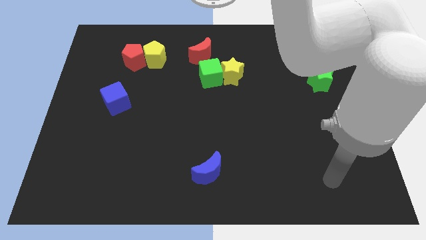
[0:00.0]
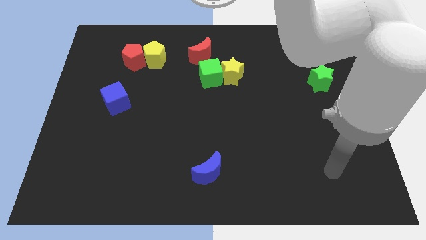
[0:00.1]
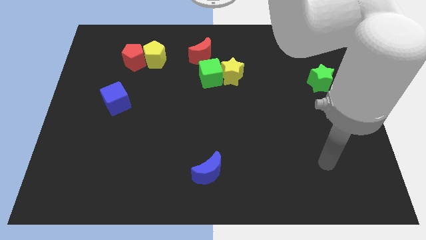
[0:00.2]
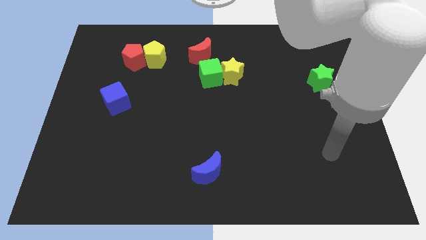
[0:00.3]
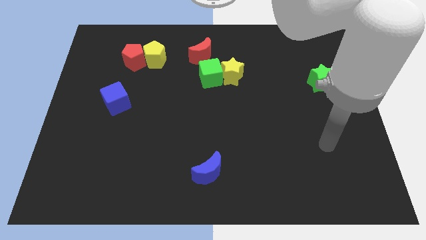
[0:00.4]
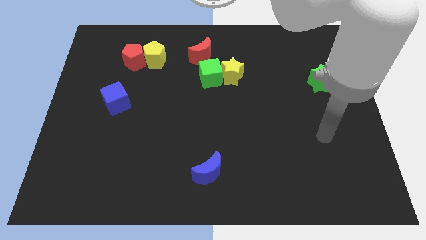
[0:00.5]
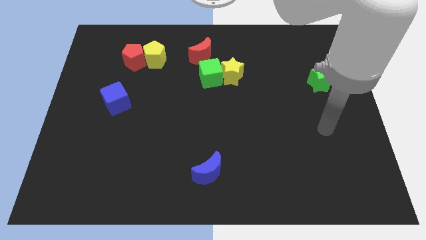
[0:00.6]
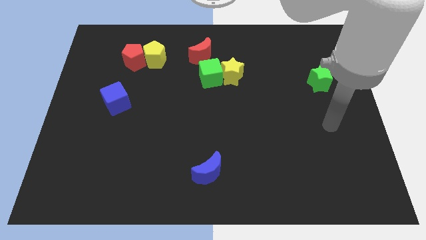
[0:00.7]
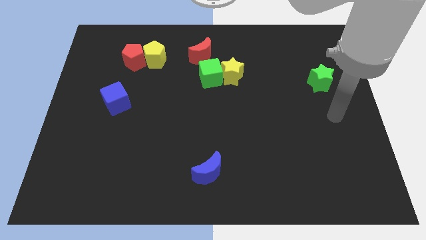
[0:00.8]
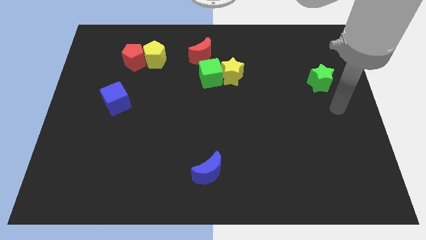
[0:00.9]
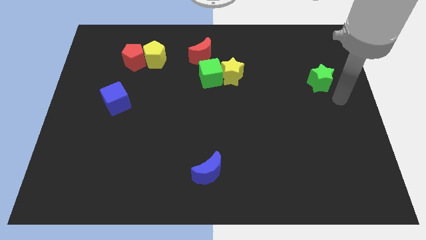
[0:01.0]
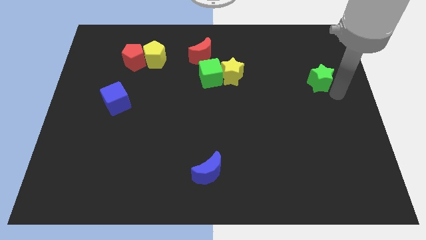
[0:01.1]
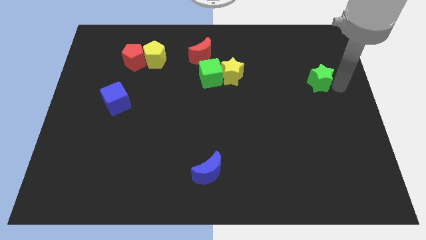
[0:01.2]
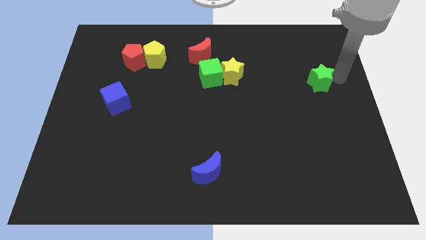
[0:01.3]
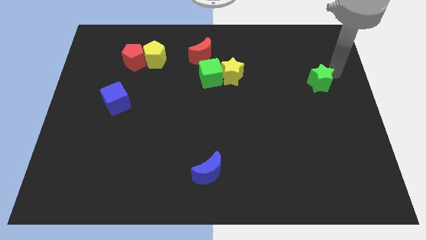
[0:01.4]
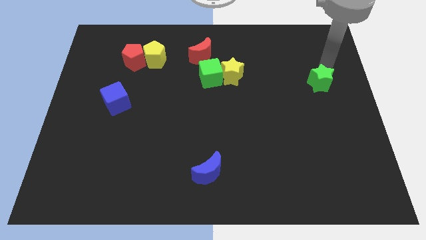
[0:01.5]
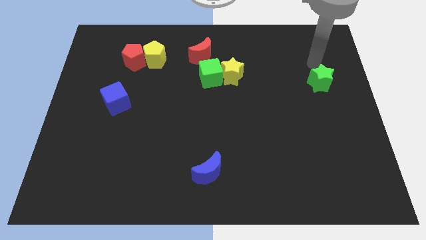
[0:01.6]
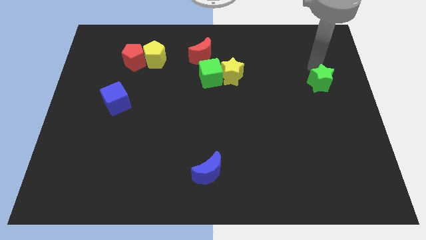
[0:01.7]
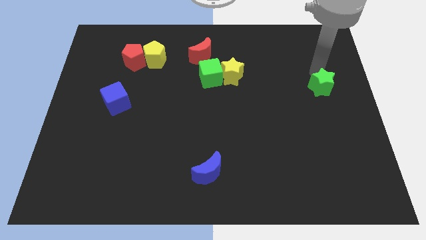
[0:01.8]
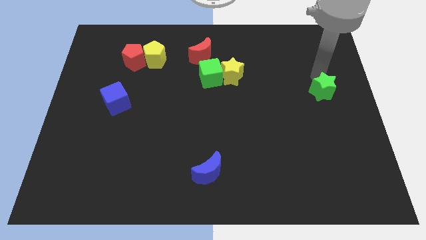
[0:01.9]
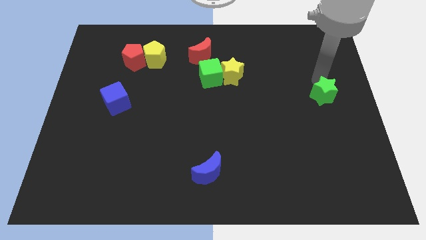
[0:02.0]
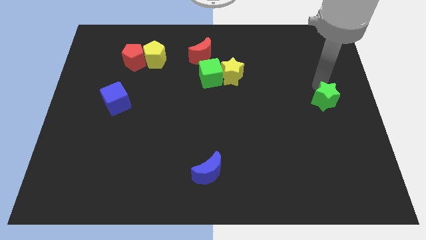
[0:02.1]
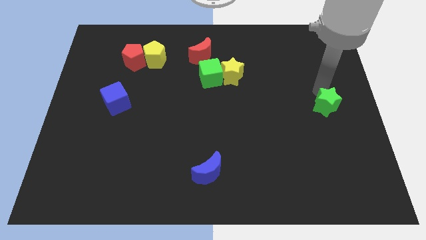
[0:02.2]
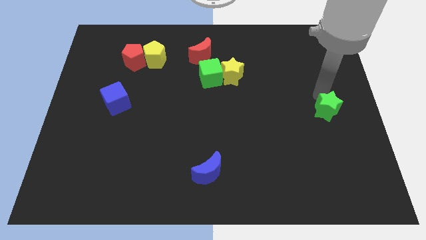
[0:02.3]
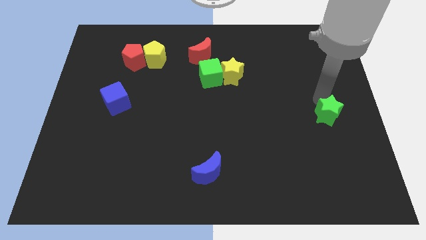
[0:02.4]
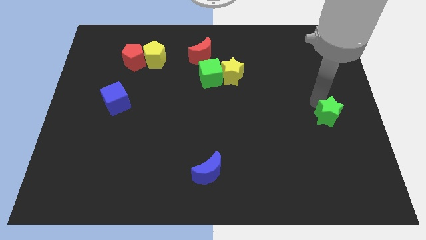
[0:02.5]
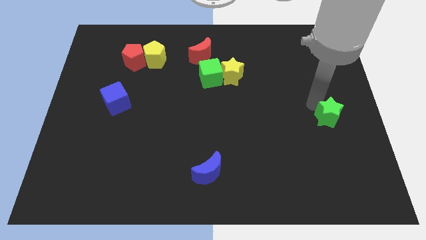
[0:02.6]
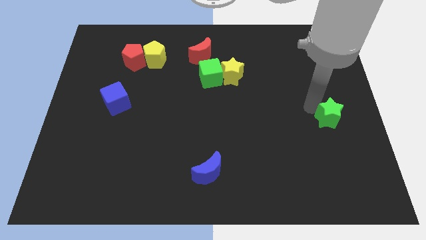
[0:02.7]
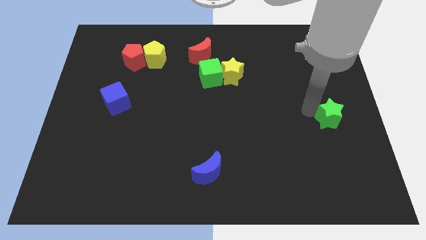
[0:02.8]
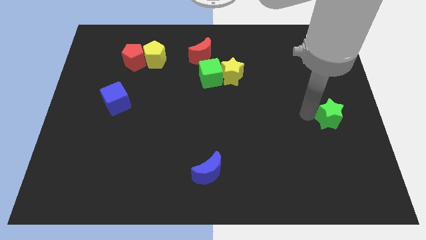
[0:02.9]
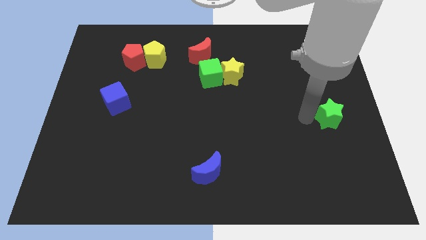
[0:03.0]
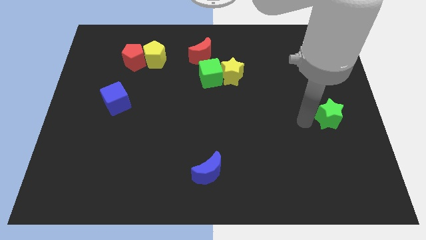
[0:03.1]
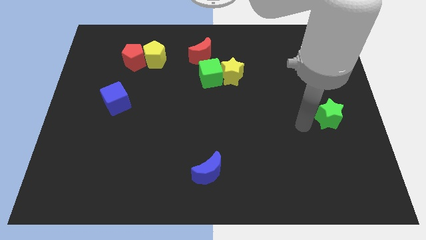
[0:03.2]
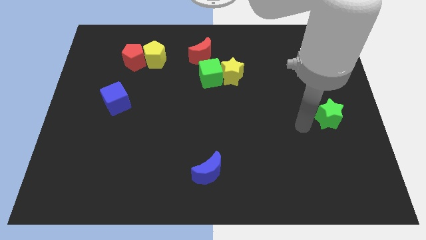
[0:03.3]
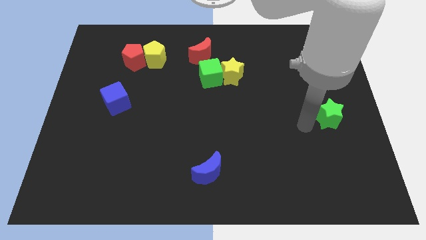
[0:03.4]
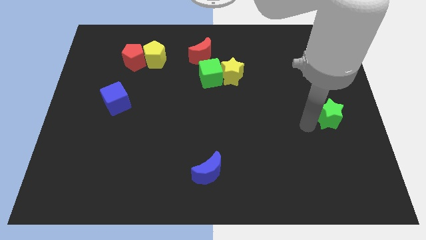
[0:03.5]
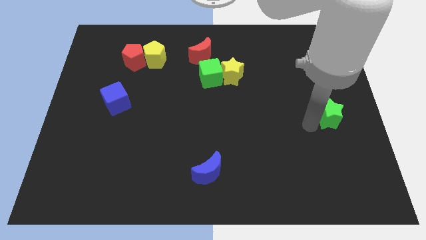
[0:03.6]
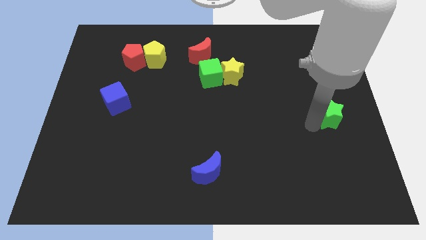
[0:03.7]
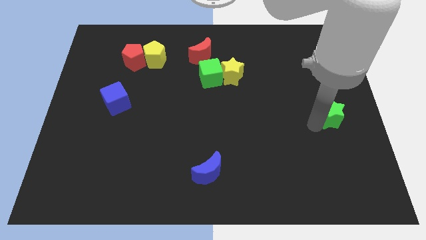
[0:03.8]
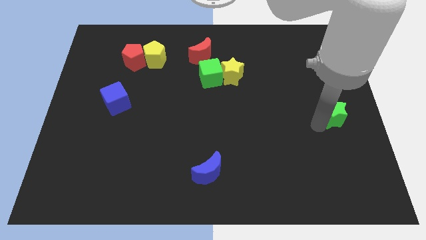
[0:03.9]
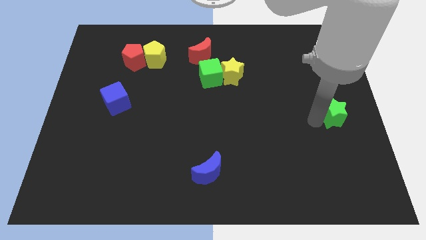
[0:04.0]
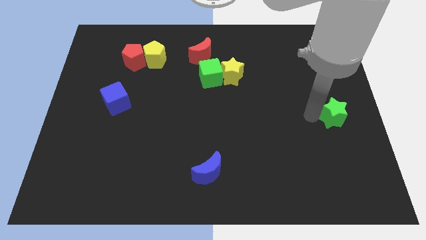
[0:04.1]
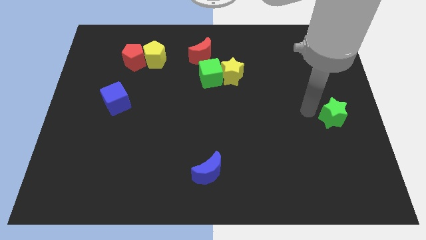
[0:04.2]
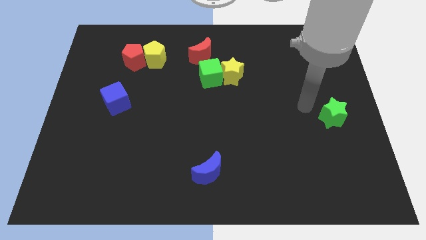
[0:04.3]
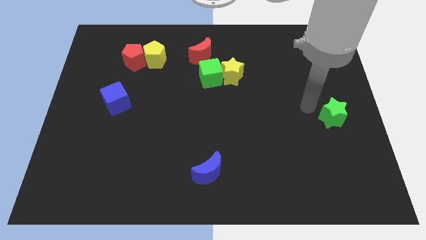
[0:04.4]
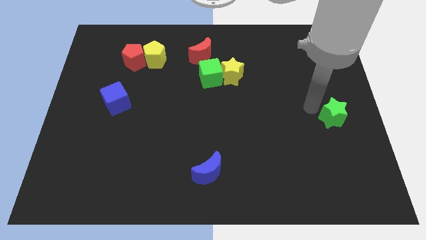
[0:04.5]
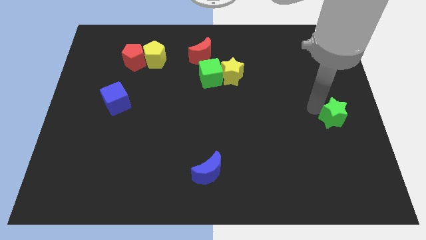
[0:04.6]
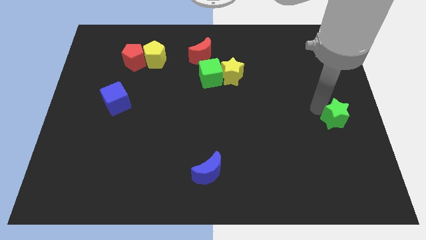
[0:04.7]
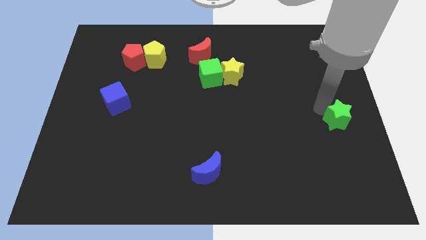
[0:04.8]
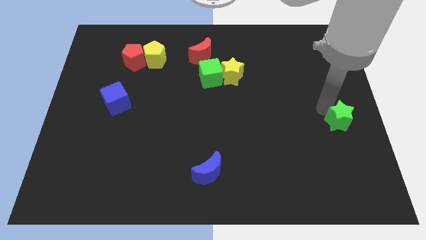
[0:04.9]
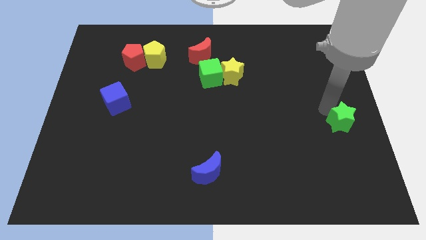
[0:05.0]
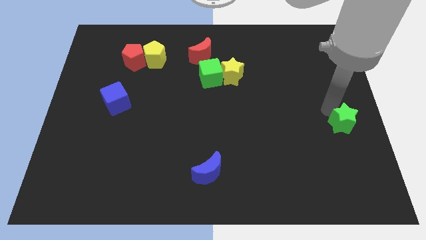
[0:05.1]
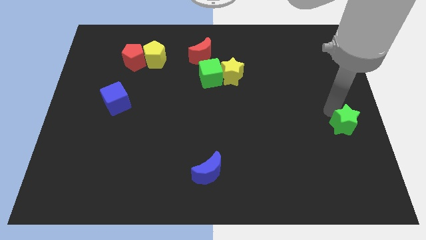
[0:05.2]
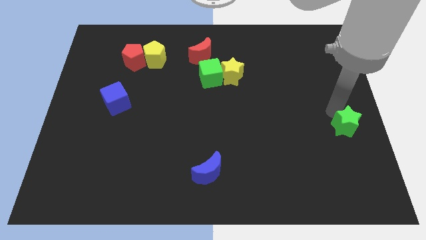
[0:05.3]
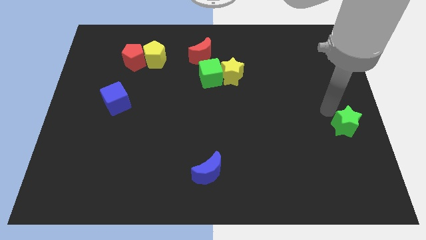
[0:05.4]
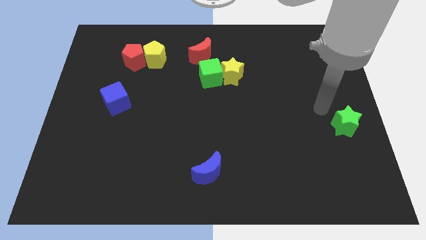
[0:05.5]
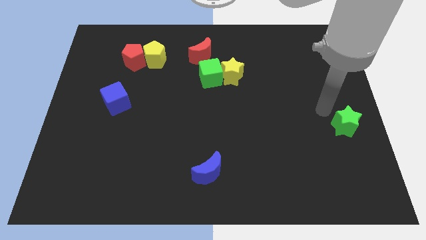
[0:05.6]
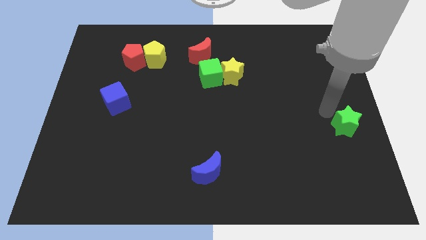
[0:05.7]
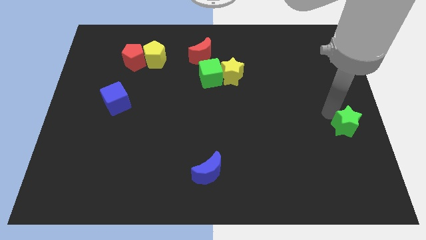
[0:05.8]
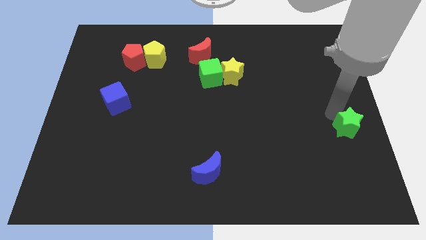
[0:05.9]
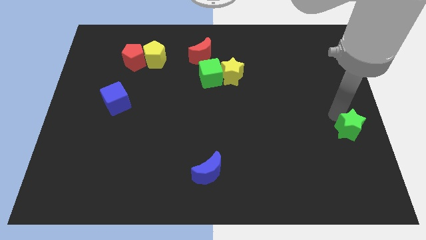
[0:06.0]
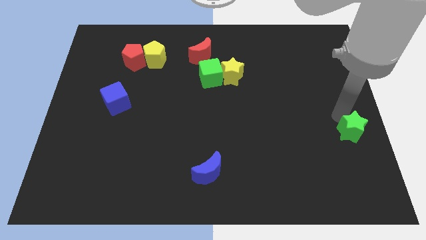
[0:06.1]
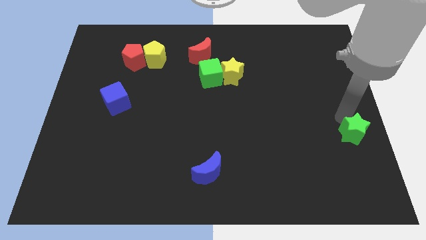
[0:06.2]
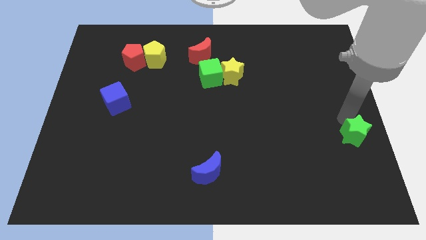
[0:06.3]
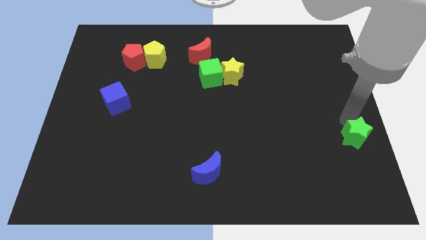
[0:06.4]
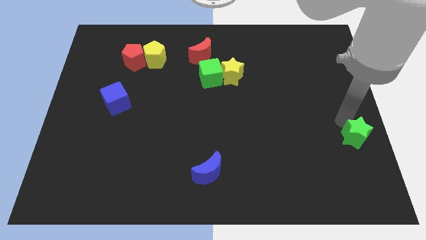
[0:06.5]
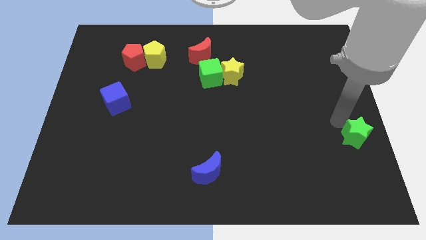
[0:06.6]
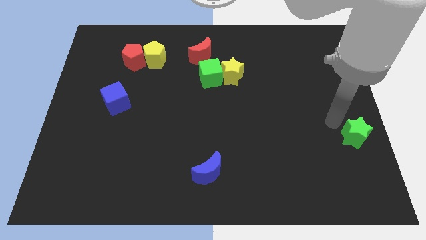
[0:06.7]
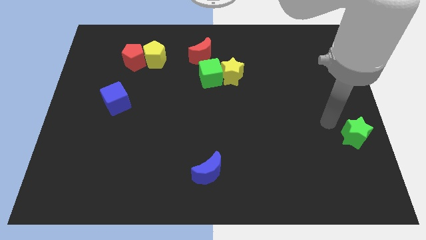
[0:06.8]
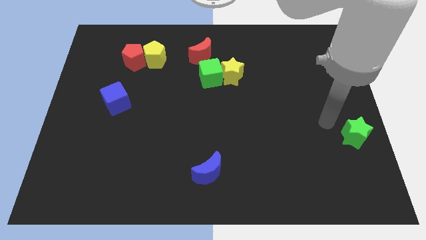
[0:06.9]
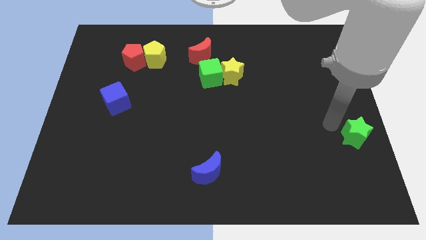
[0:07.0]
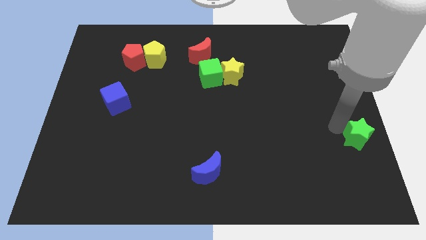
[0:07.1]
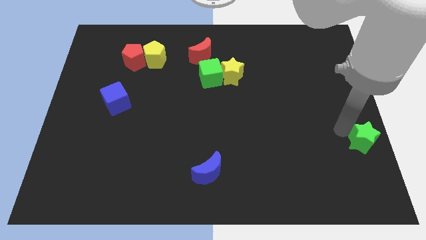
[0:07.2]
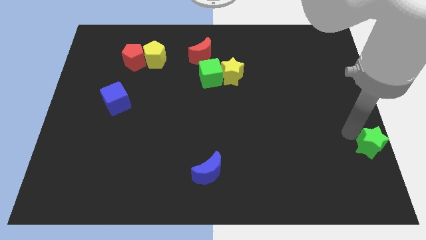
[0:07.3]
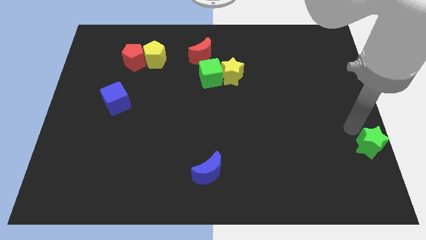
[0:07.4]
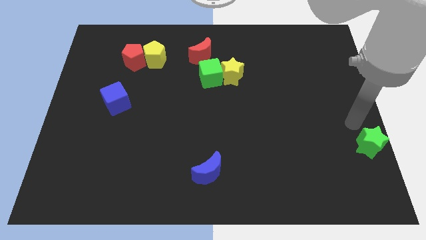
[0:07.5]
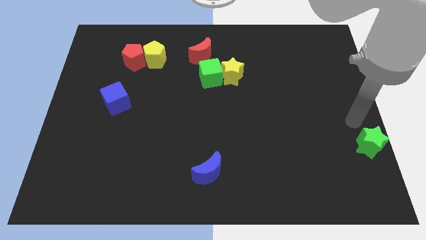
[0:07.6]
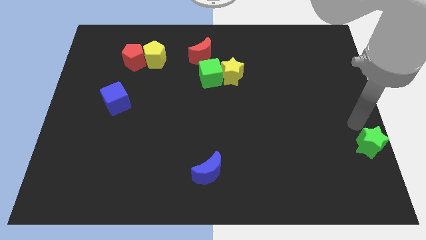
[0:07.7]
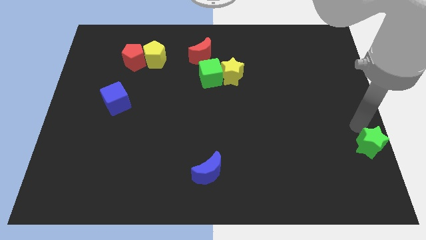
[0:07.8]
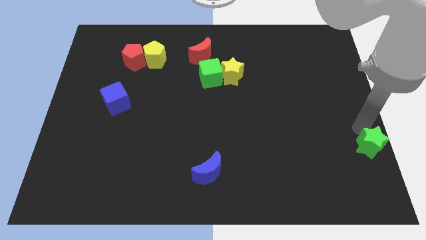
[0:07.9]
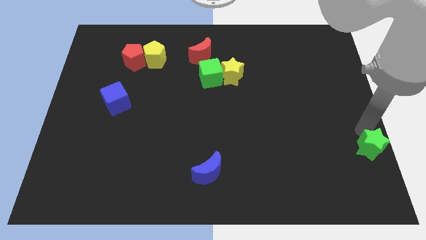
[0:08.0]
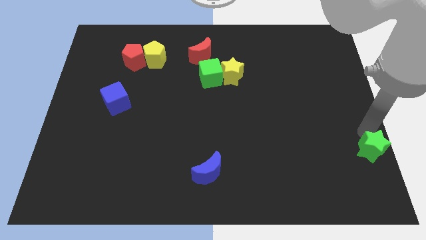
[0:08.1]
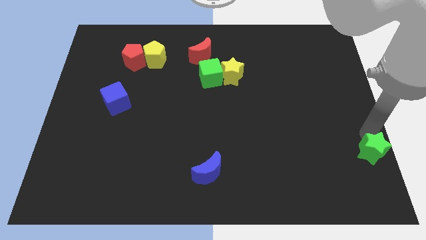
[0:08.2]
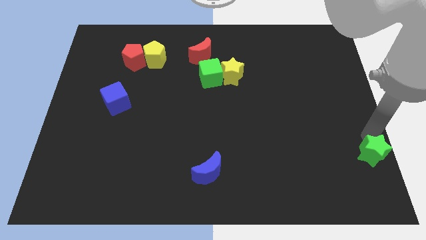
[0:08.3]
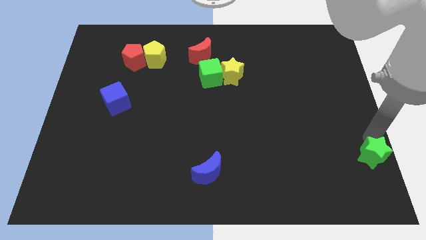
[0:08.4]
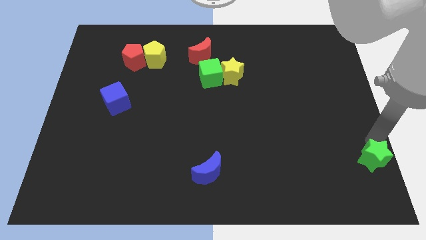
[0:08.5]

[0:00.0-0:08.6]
push the green star to the bottom right corner
